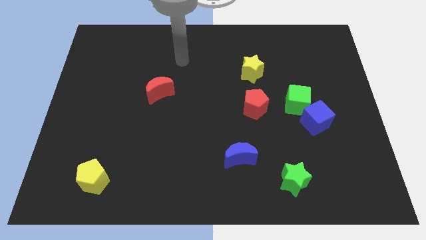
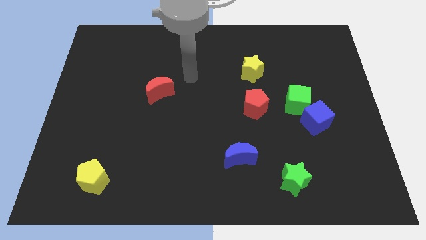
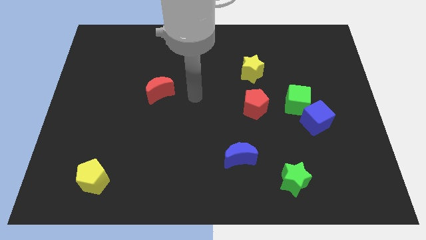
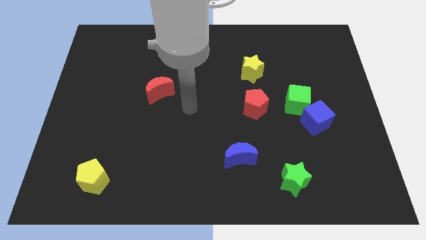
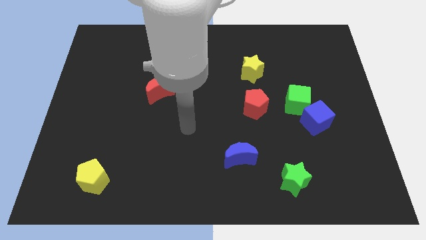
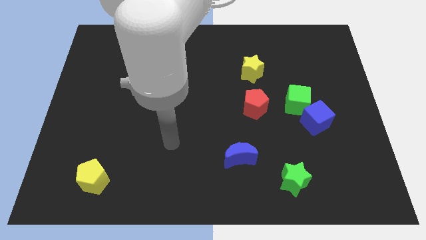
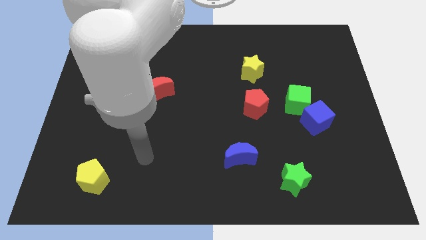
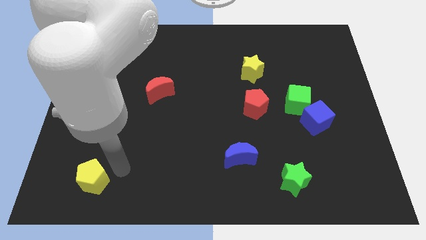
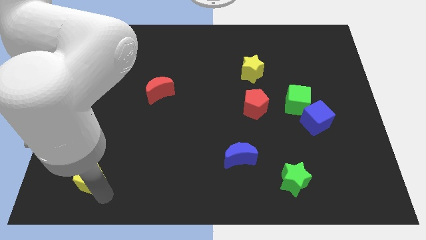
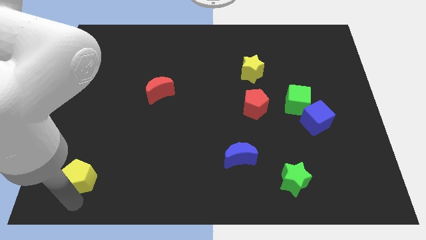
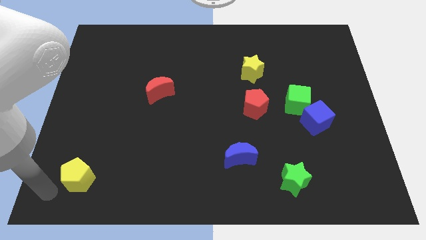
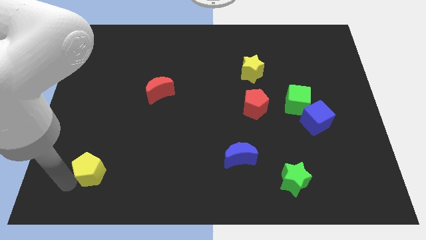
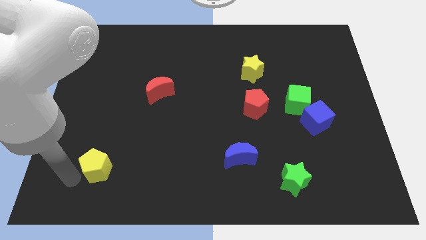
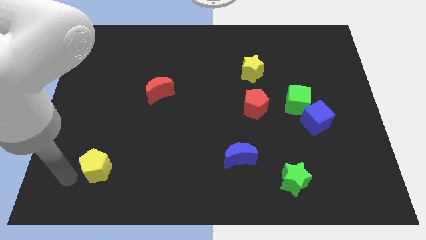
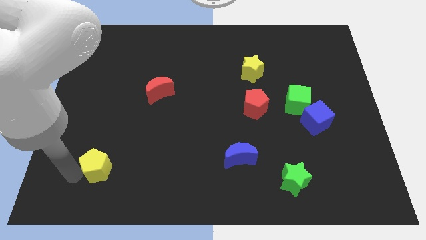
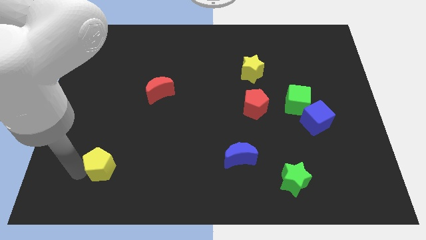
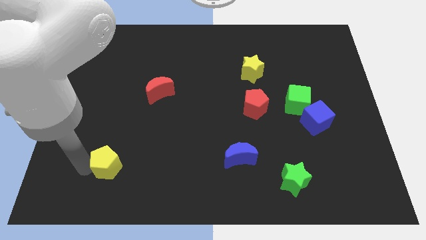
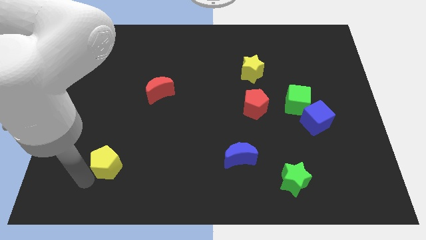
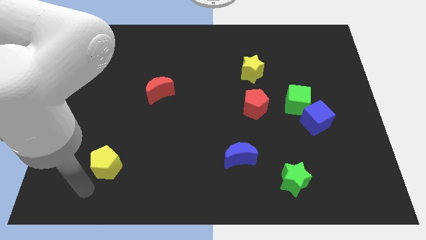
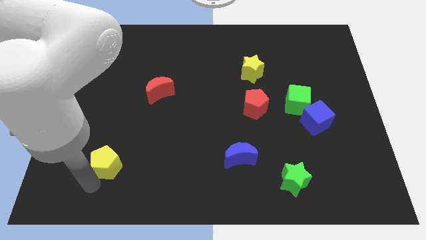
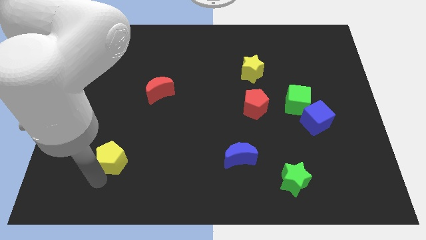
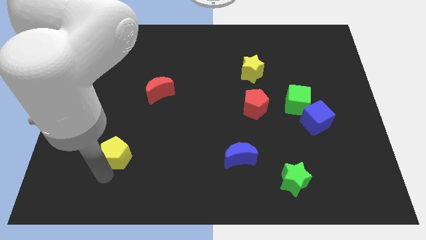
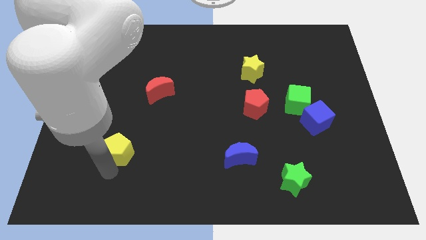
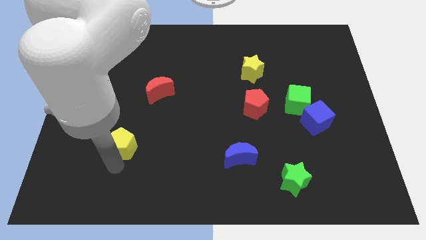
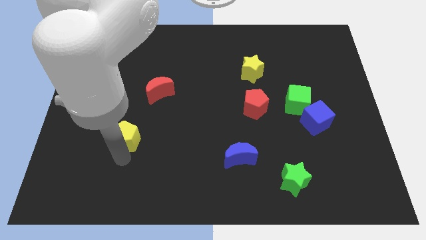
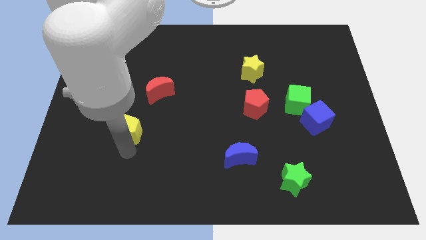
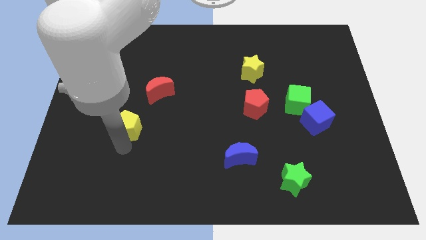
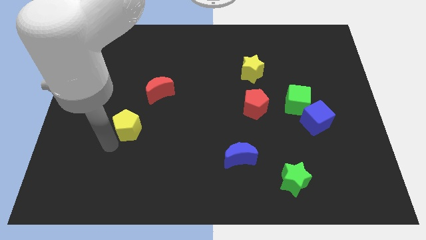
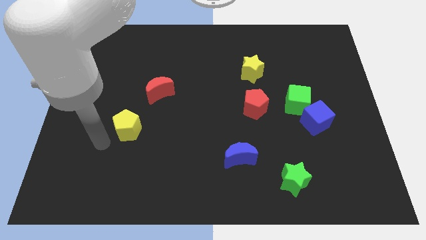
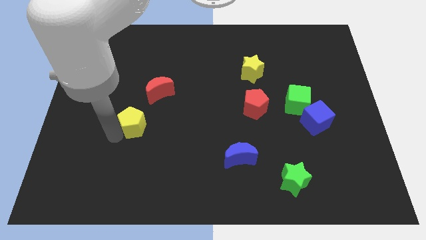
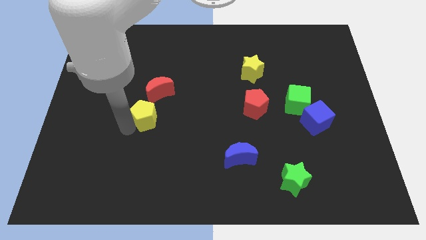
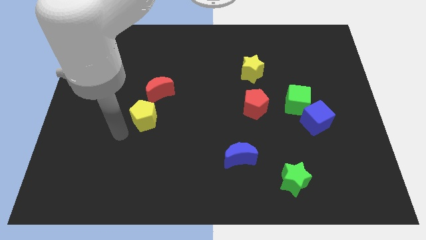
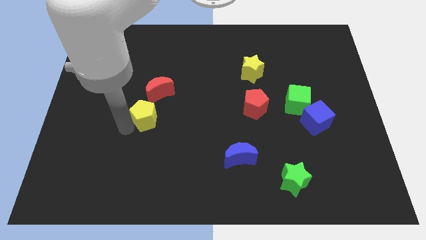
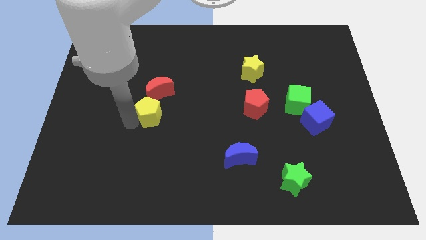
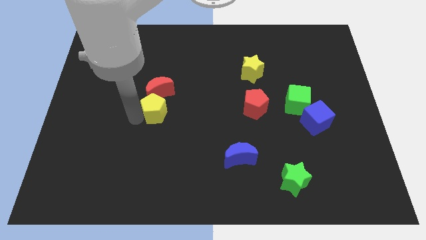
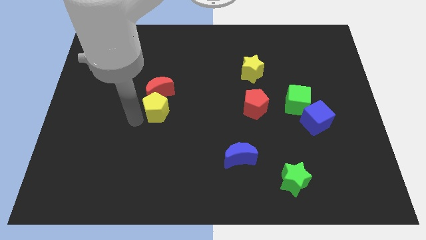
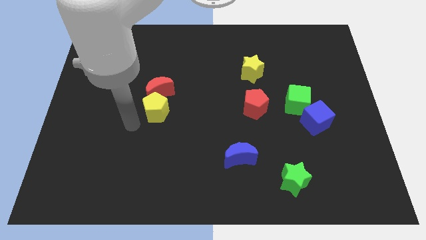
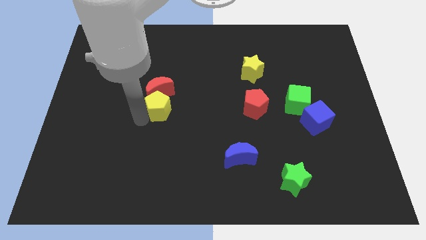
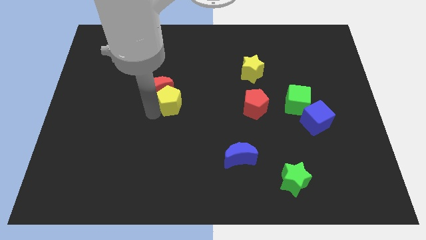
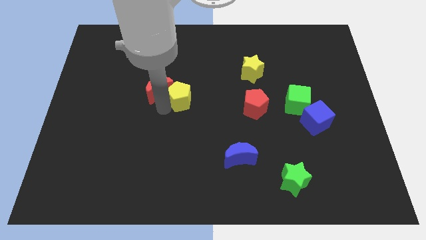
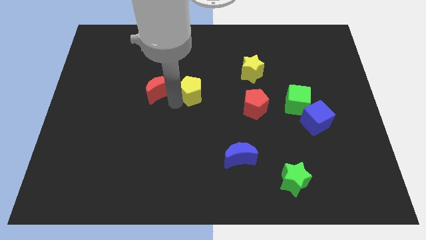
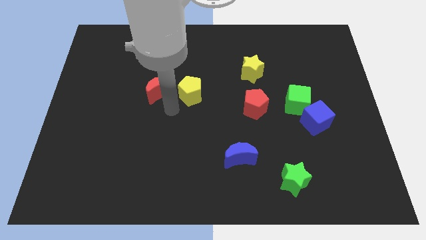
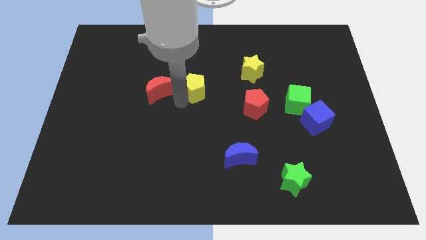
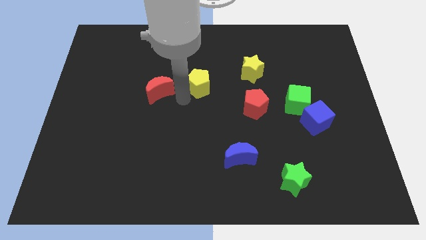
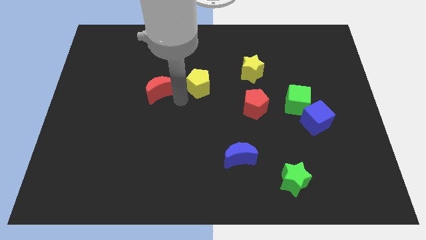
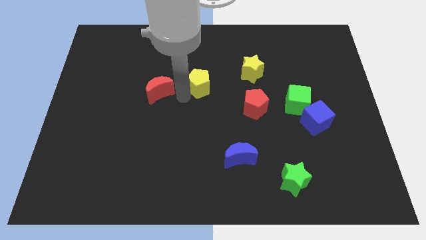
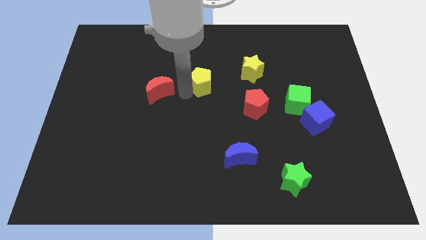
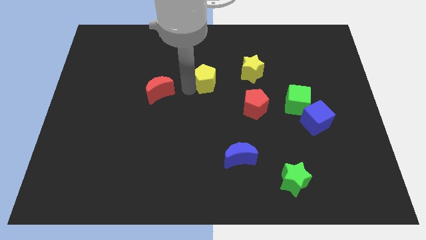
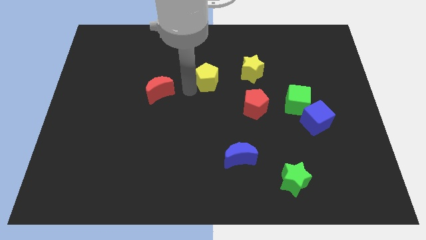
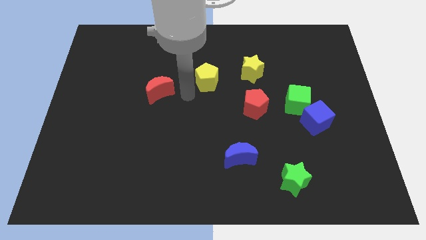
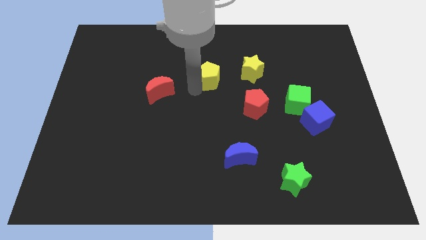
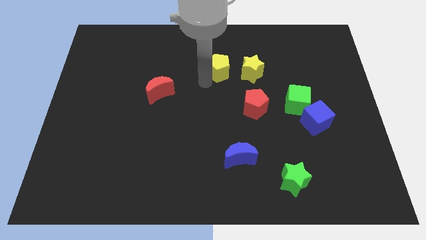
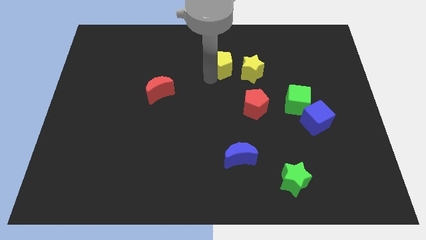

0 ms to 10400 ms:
move the yellow pentagon to the top left side of the yellow star

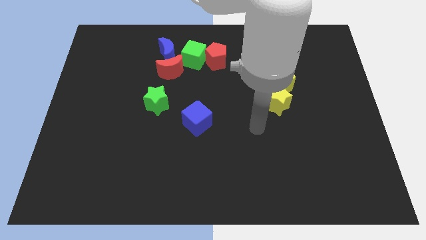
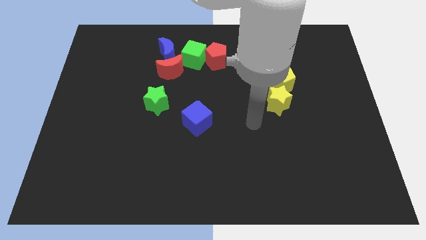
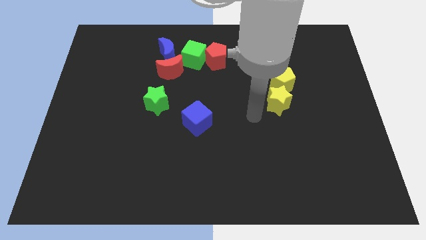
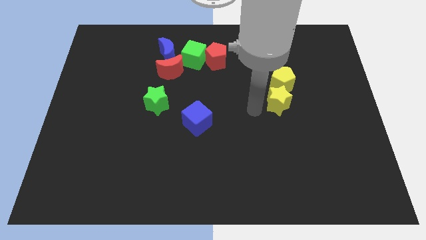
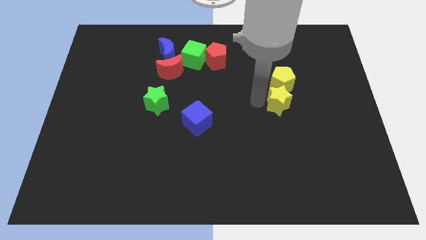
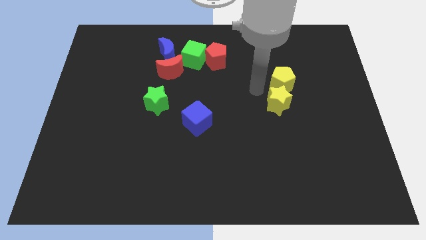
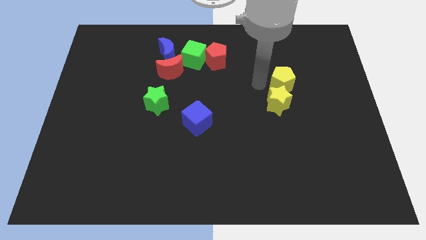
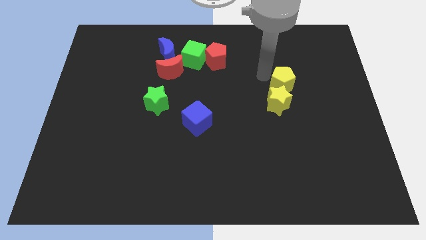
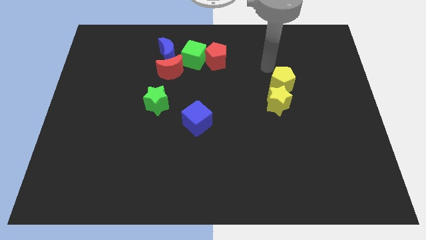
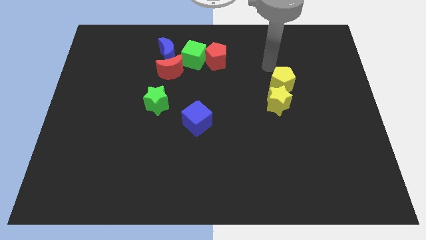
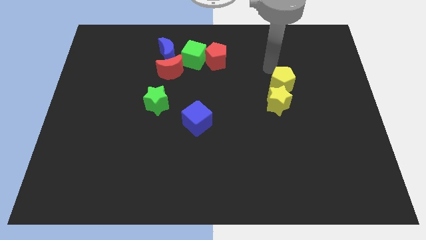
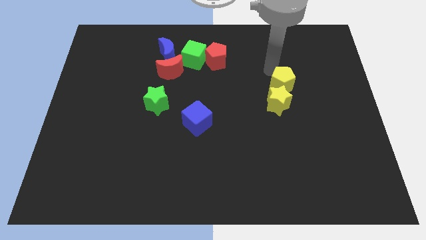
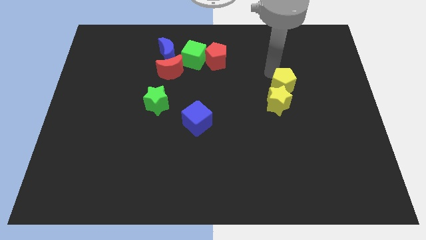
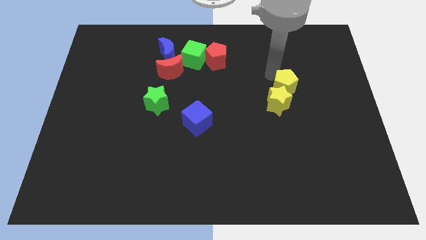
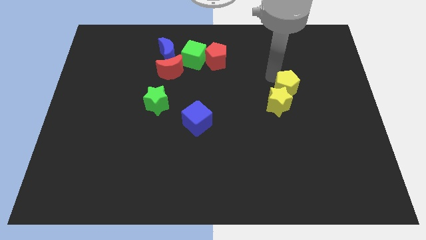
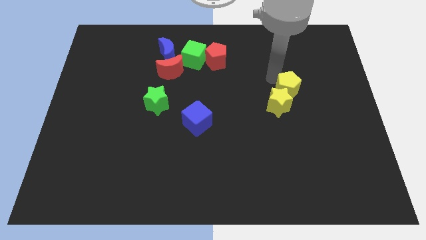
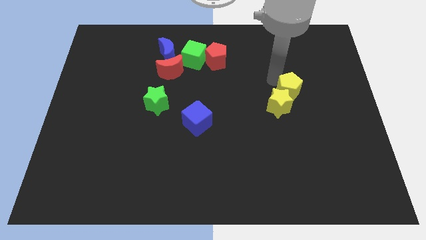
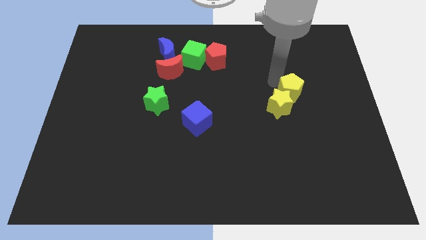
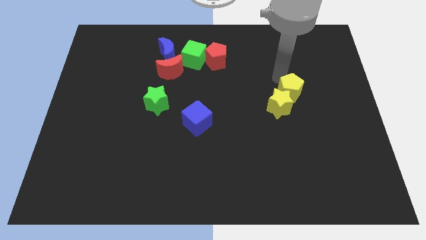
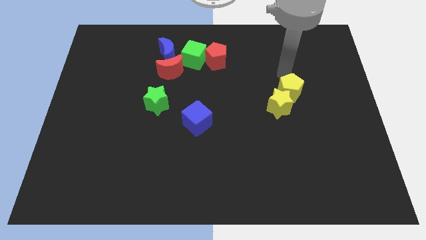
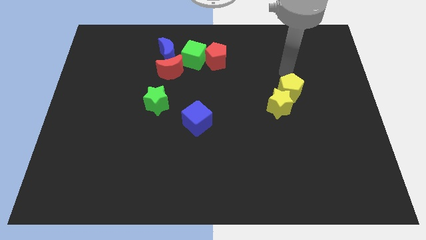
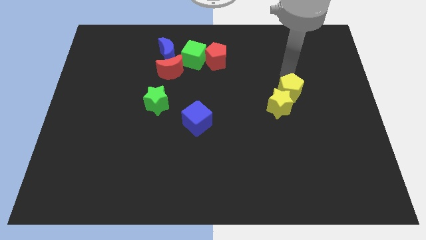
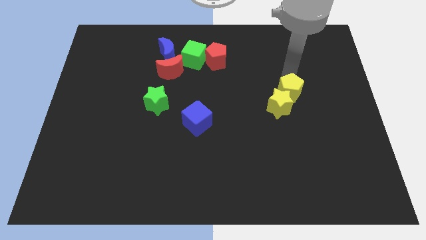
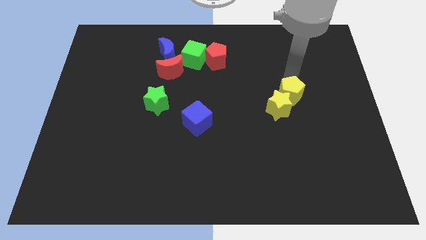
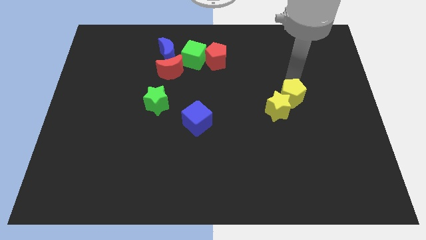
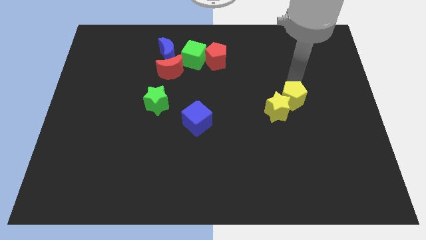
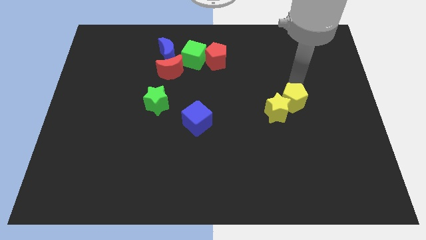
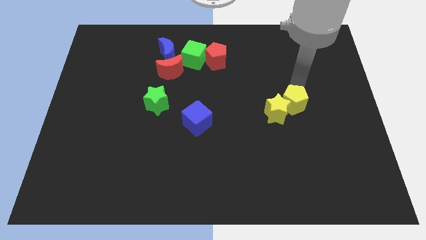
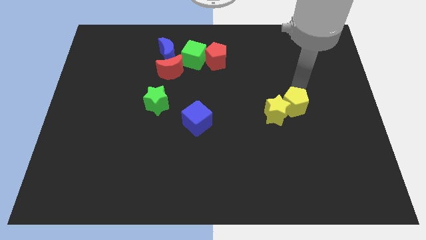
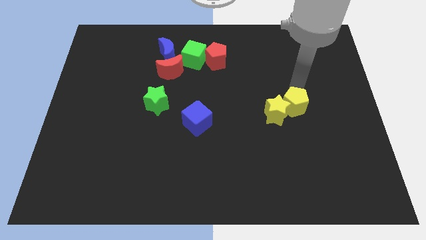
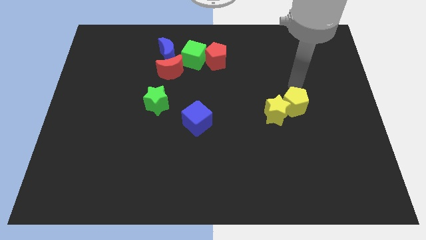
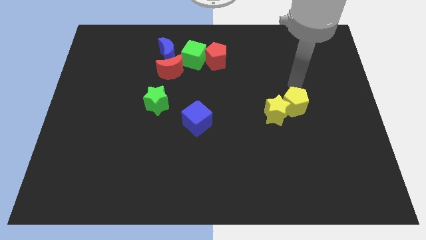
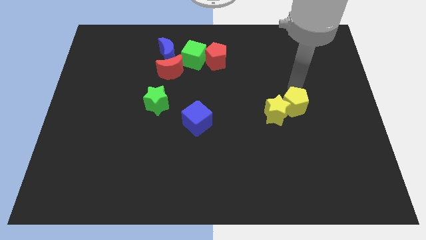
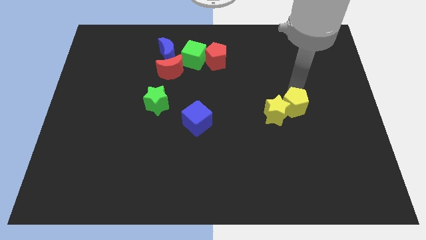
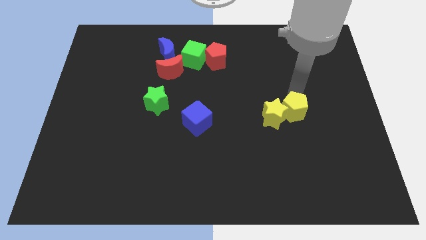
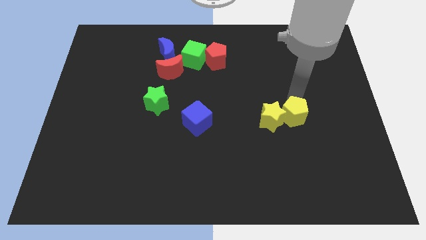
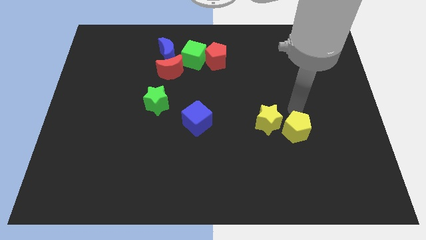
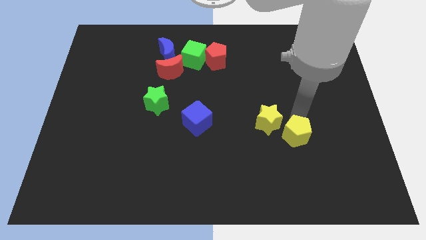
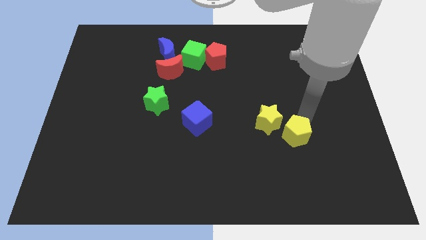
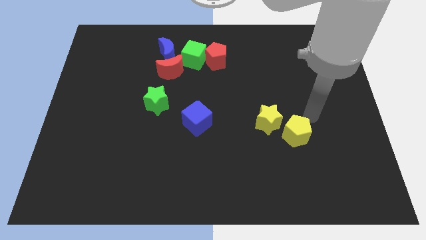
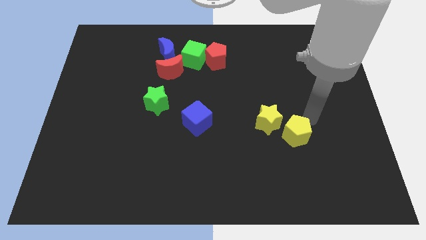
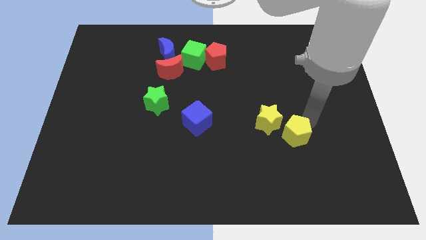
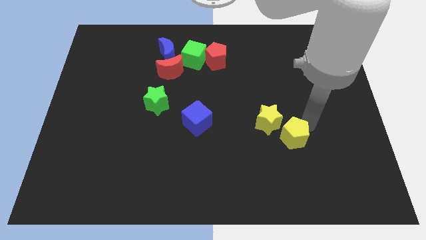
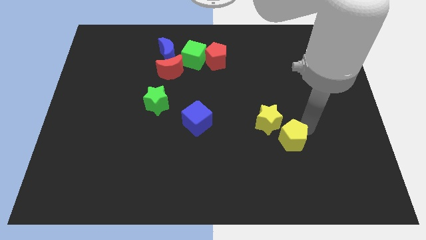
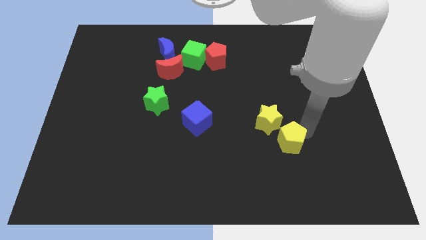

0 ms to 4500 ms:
put the yellow pentagon to the bottom of the yellow star
